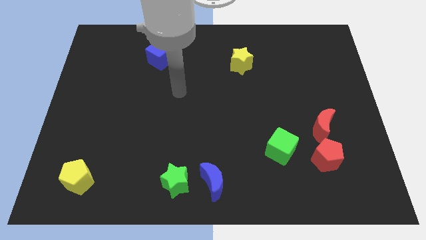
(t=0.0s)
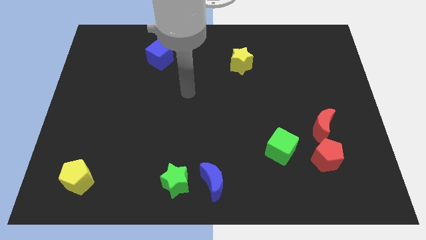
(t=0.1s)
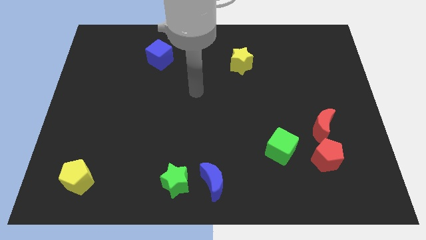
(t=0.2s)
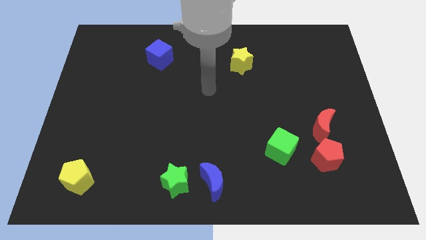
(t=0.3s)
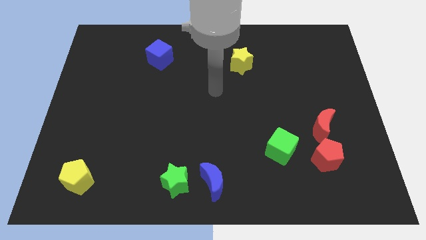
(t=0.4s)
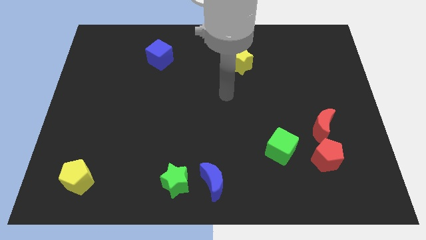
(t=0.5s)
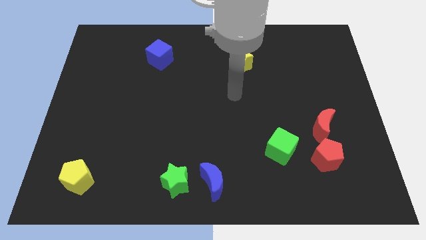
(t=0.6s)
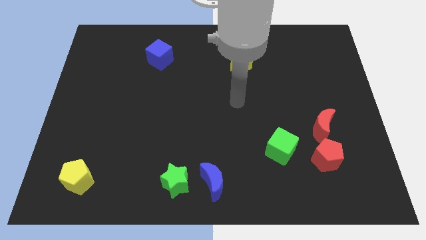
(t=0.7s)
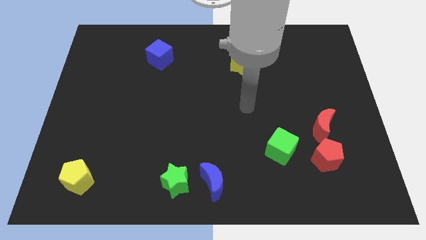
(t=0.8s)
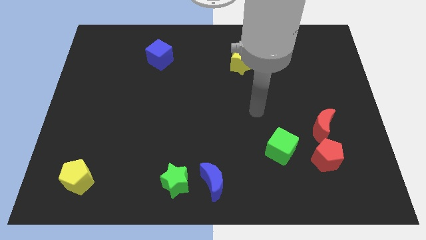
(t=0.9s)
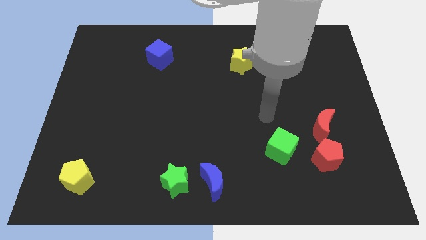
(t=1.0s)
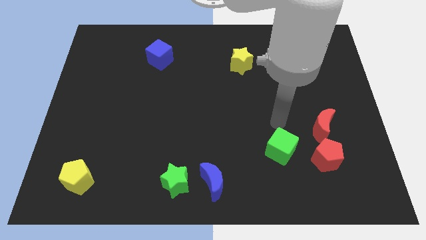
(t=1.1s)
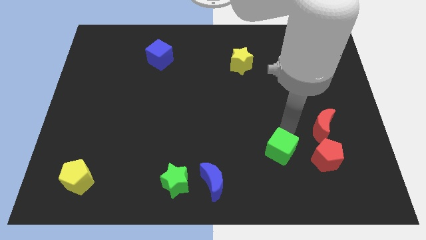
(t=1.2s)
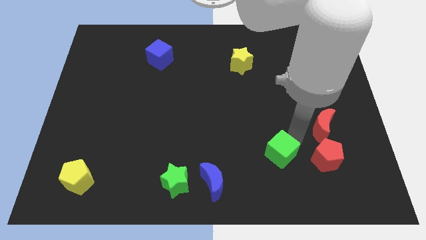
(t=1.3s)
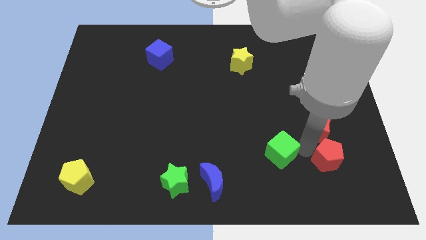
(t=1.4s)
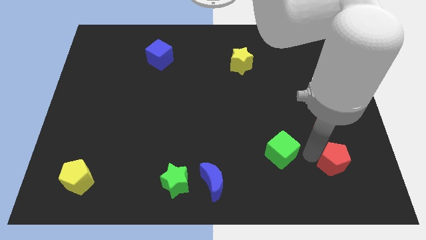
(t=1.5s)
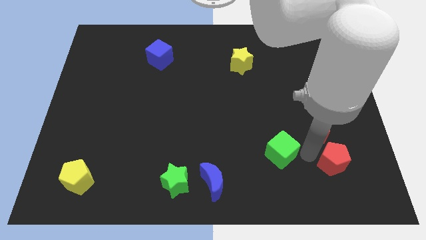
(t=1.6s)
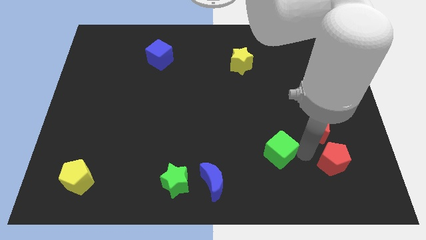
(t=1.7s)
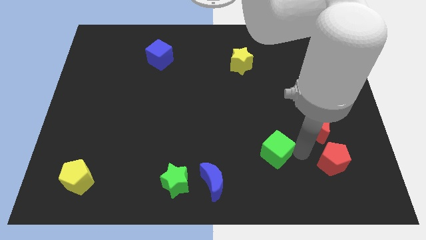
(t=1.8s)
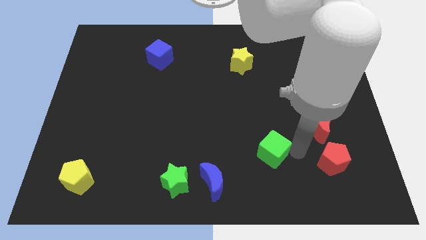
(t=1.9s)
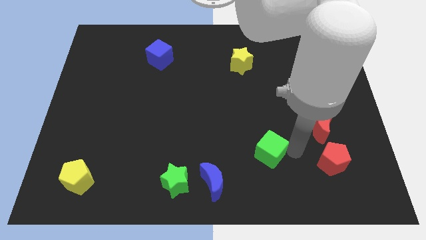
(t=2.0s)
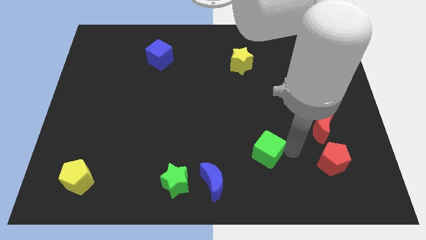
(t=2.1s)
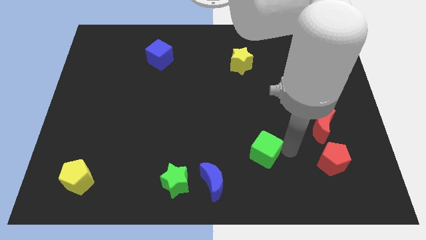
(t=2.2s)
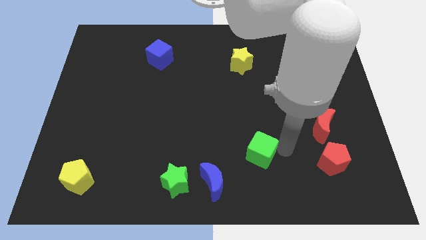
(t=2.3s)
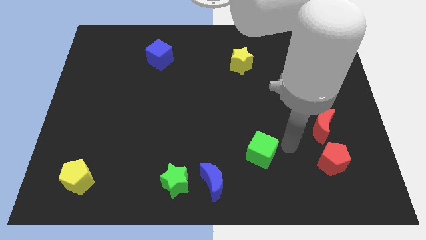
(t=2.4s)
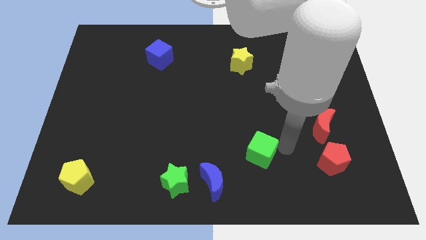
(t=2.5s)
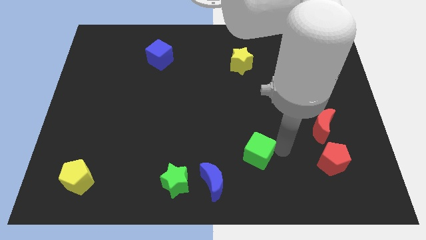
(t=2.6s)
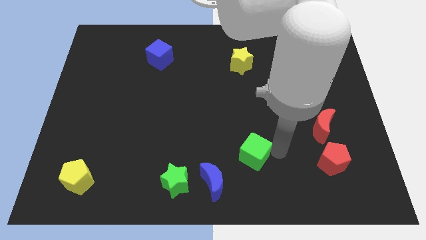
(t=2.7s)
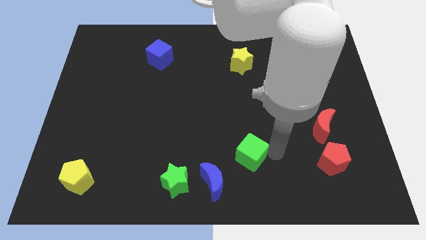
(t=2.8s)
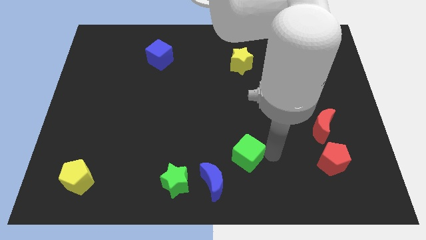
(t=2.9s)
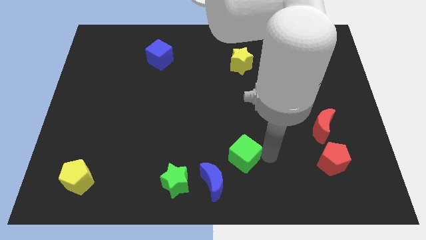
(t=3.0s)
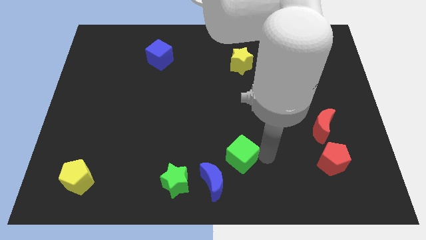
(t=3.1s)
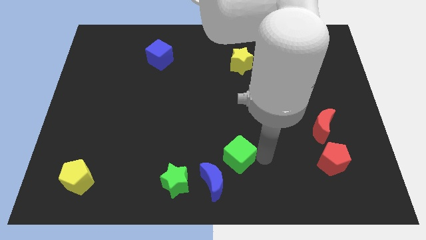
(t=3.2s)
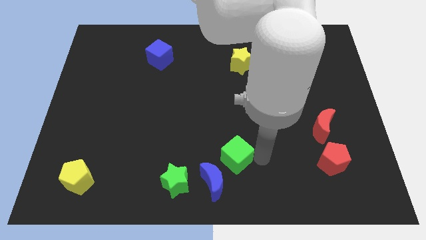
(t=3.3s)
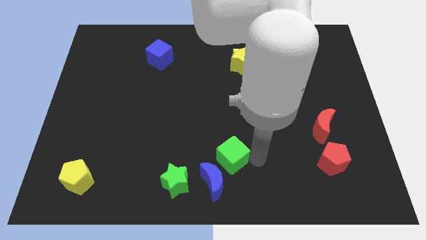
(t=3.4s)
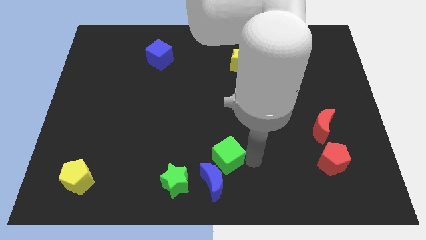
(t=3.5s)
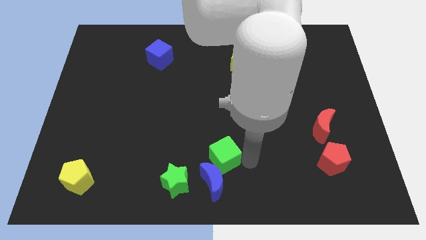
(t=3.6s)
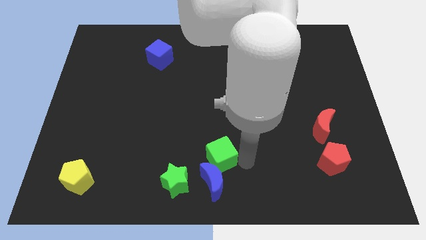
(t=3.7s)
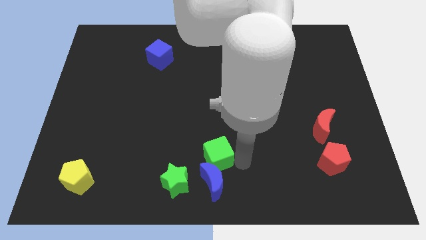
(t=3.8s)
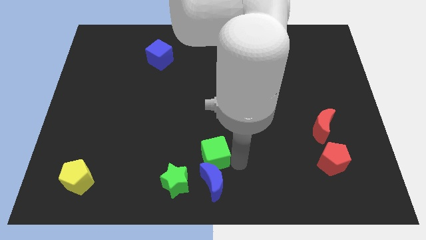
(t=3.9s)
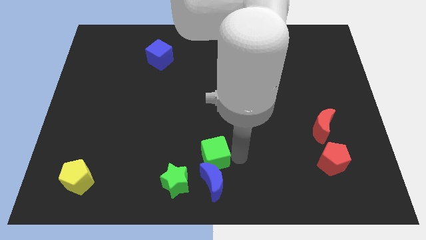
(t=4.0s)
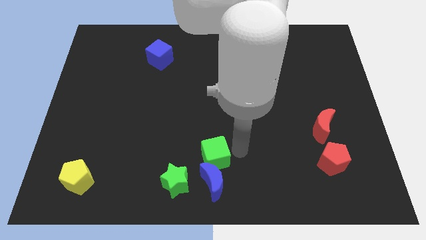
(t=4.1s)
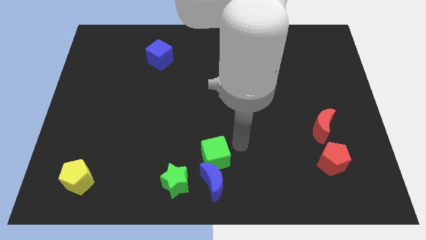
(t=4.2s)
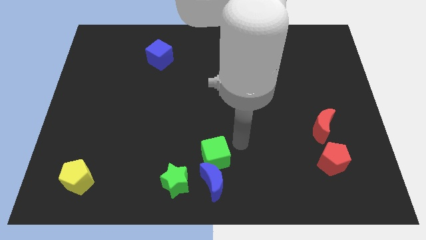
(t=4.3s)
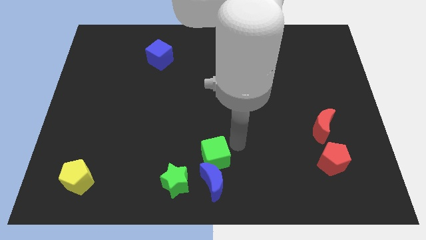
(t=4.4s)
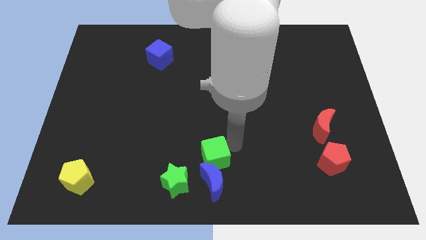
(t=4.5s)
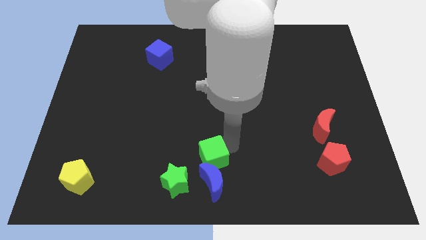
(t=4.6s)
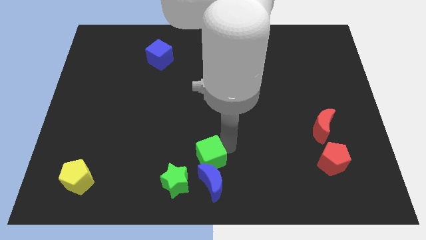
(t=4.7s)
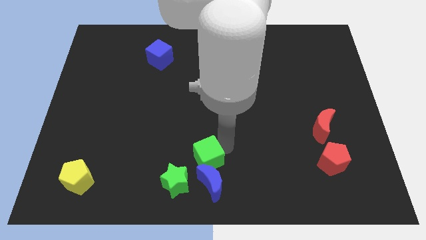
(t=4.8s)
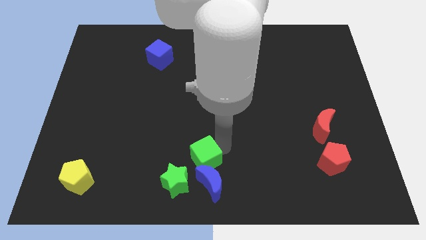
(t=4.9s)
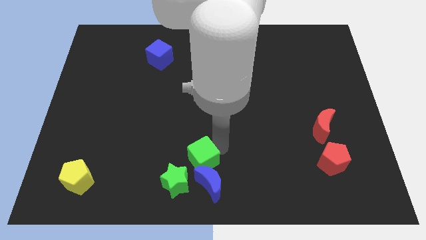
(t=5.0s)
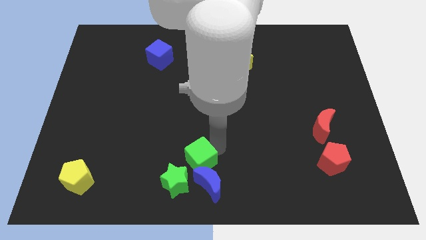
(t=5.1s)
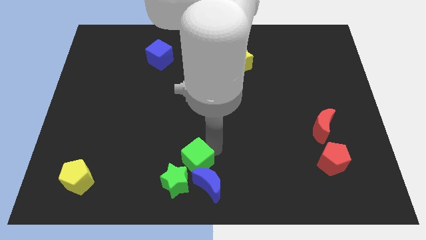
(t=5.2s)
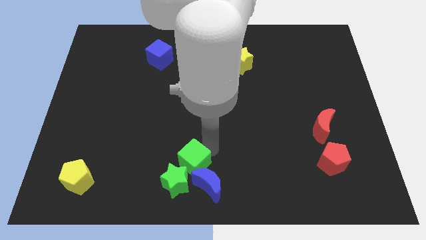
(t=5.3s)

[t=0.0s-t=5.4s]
move the green cube to the green star

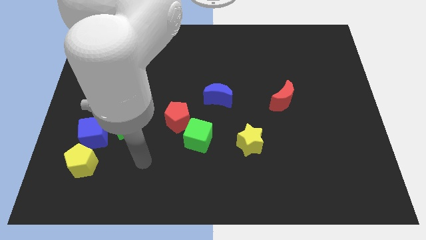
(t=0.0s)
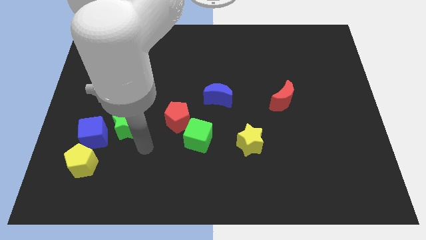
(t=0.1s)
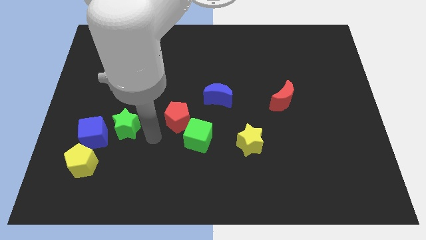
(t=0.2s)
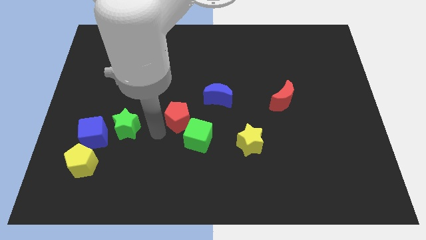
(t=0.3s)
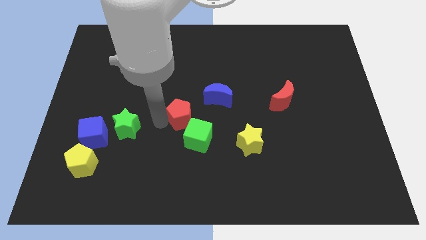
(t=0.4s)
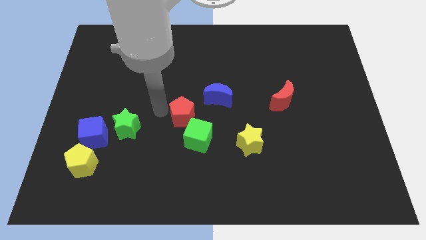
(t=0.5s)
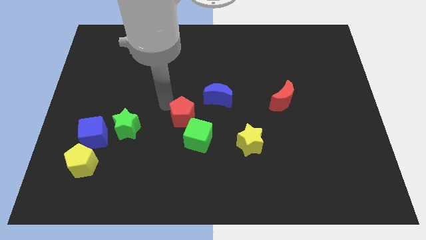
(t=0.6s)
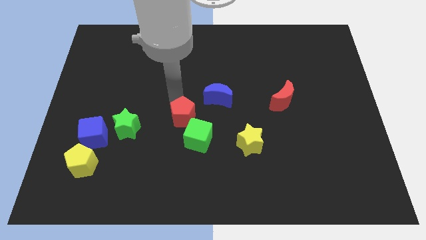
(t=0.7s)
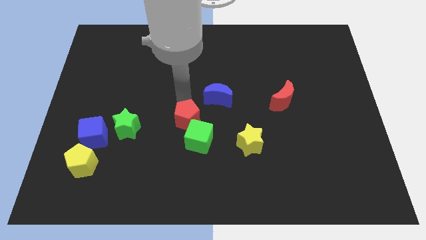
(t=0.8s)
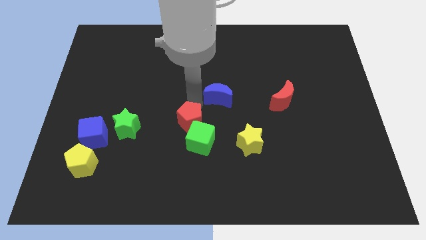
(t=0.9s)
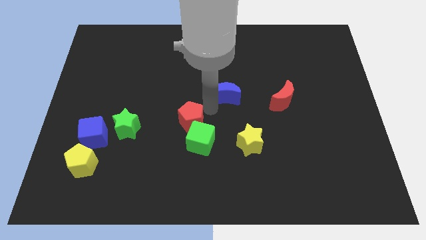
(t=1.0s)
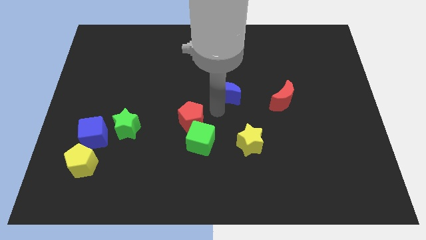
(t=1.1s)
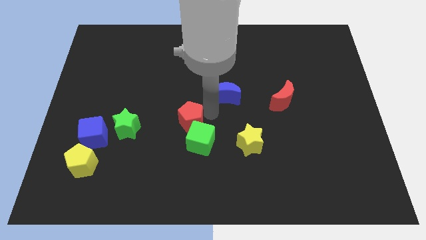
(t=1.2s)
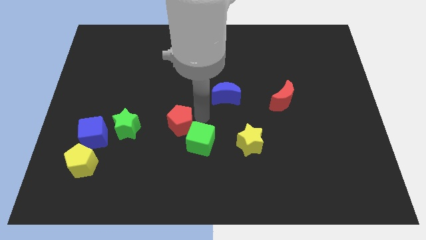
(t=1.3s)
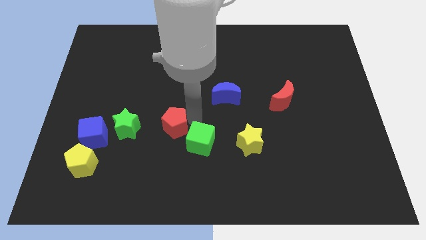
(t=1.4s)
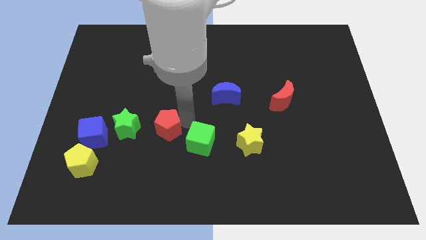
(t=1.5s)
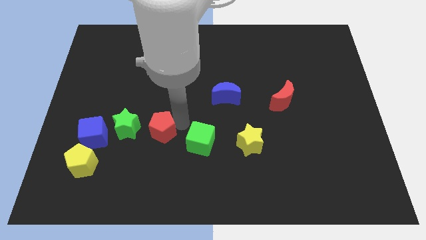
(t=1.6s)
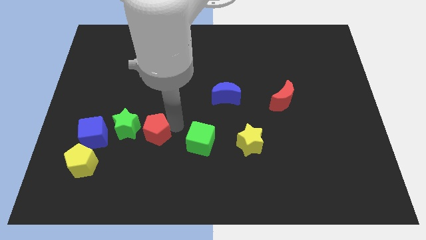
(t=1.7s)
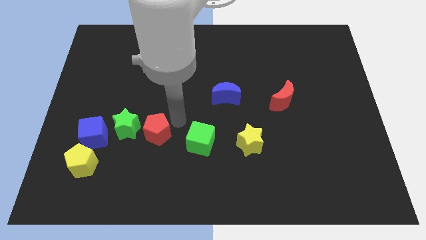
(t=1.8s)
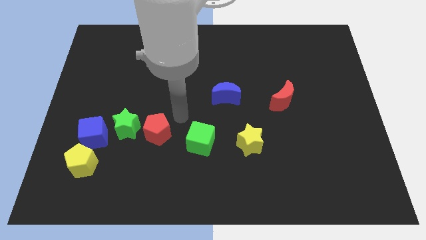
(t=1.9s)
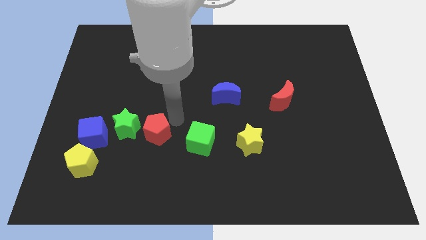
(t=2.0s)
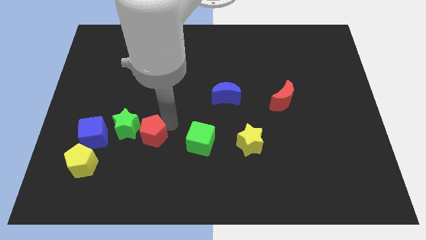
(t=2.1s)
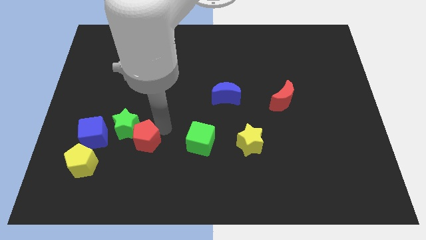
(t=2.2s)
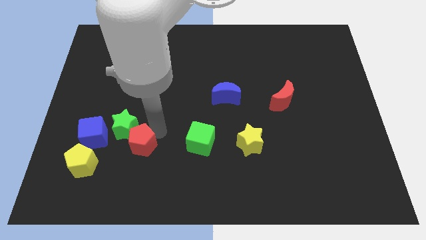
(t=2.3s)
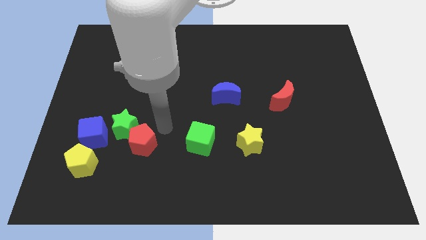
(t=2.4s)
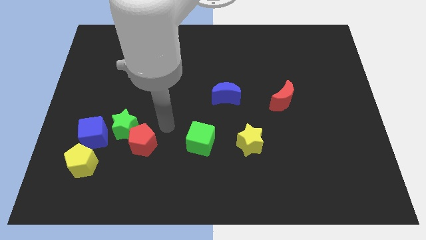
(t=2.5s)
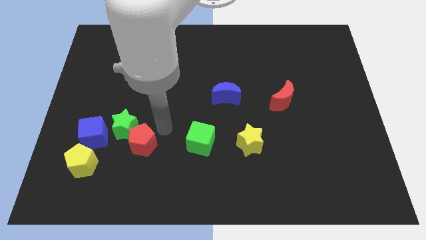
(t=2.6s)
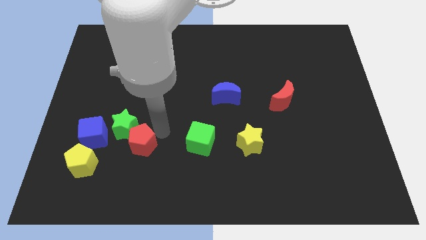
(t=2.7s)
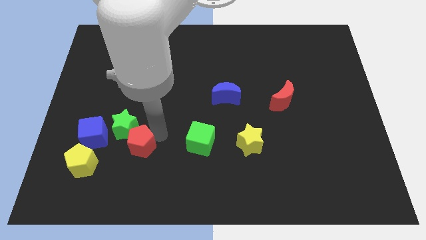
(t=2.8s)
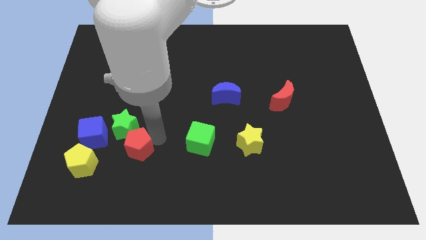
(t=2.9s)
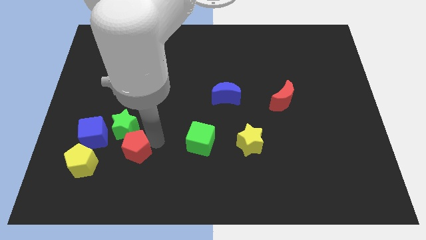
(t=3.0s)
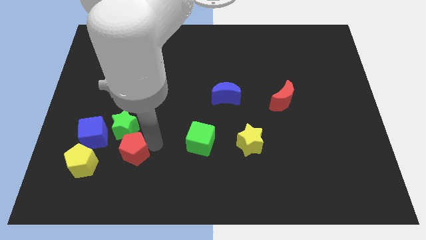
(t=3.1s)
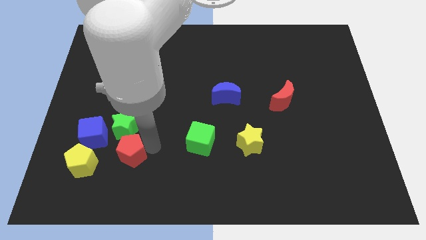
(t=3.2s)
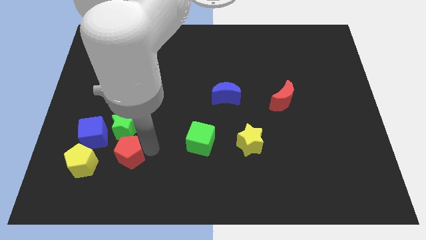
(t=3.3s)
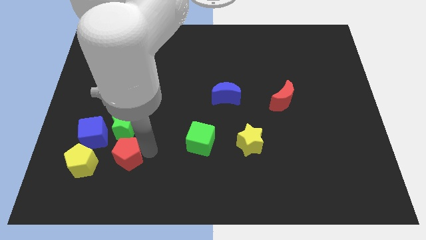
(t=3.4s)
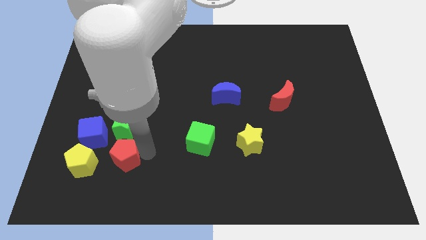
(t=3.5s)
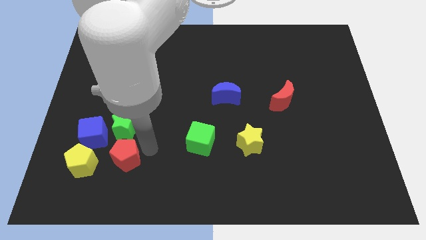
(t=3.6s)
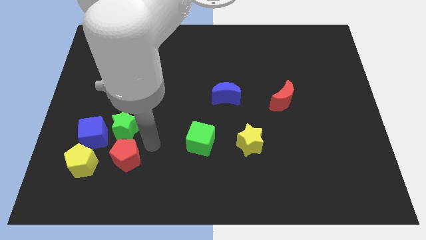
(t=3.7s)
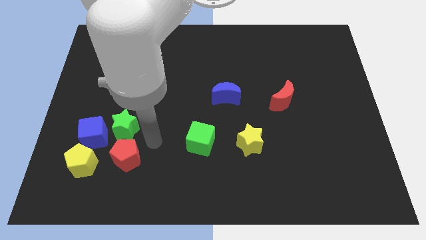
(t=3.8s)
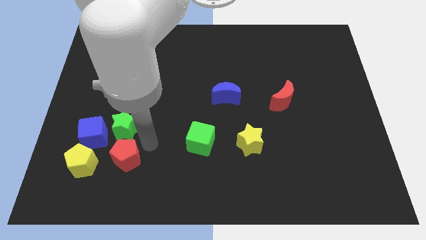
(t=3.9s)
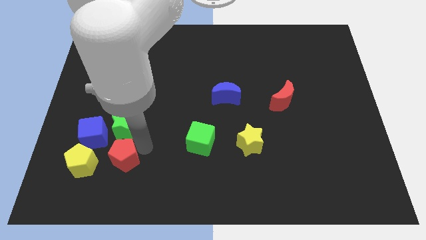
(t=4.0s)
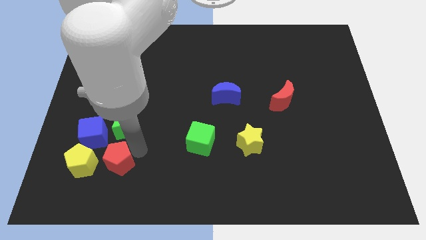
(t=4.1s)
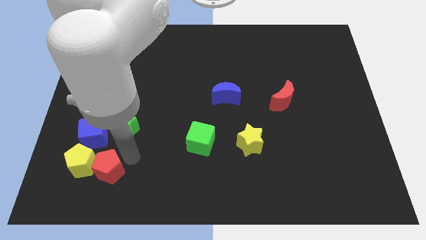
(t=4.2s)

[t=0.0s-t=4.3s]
put the red pentagon close to the yellow pentagon
